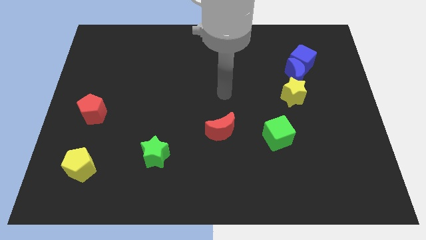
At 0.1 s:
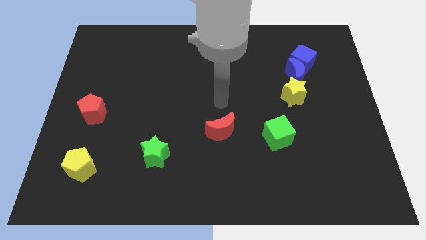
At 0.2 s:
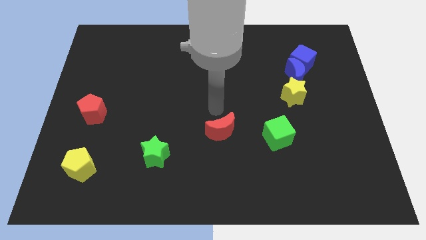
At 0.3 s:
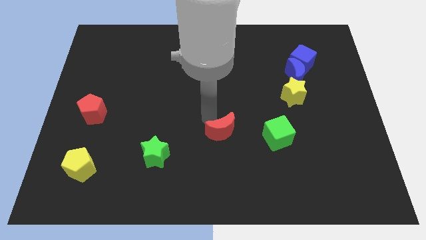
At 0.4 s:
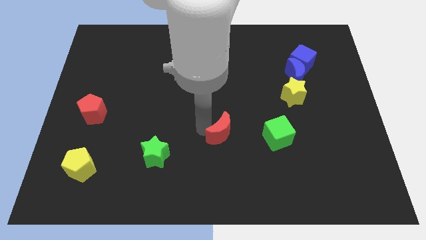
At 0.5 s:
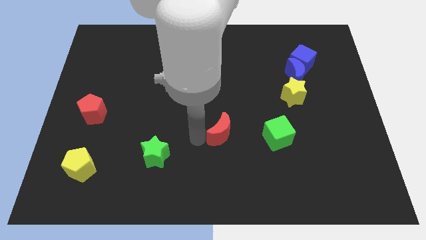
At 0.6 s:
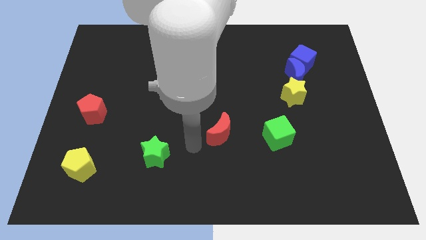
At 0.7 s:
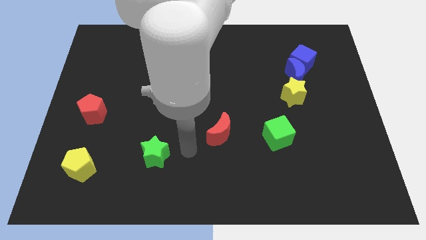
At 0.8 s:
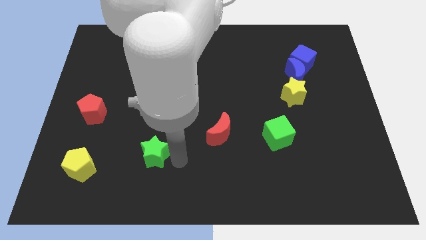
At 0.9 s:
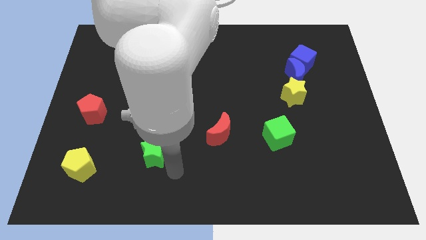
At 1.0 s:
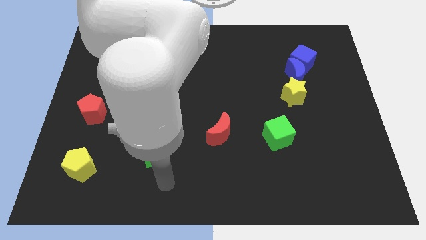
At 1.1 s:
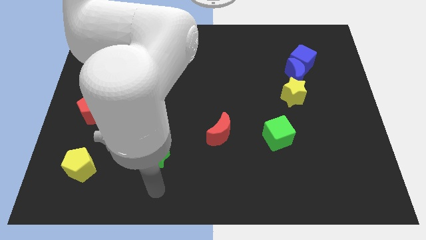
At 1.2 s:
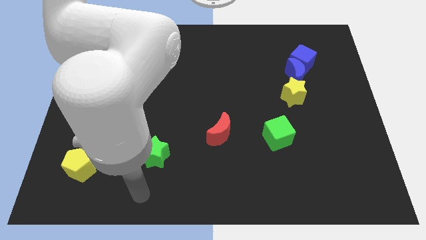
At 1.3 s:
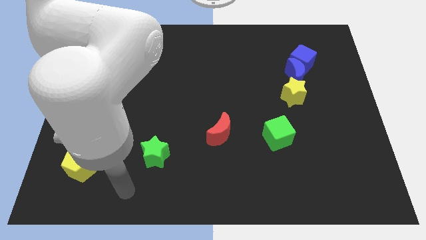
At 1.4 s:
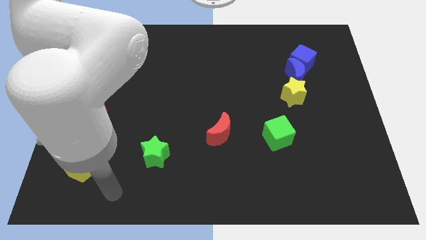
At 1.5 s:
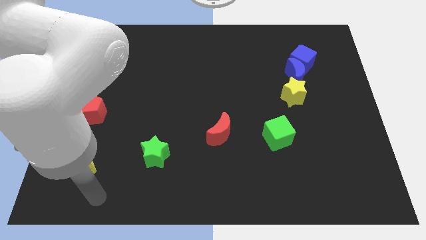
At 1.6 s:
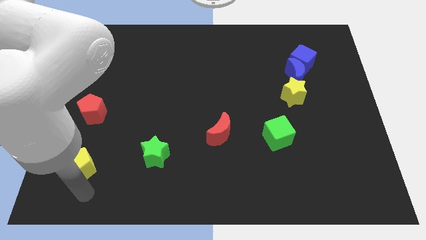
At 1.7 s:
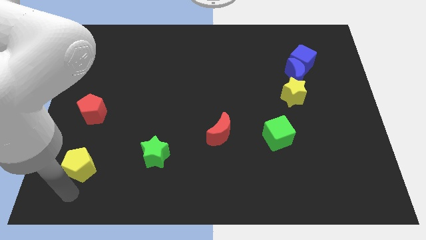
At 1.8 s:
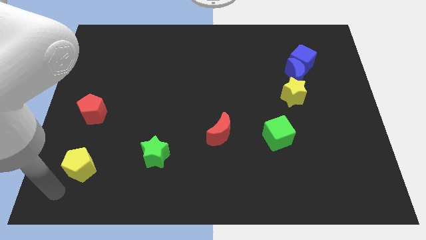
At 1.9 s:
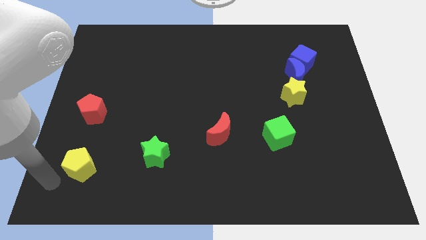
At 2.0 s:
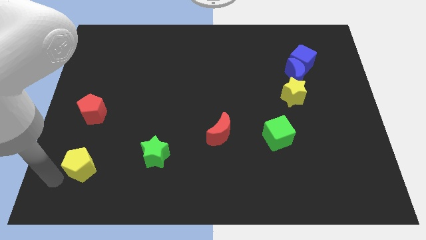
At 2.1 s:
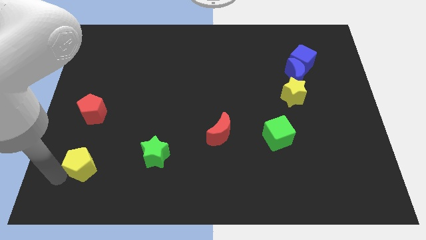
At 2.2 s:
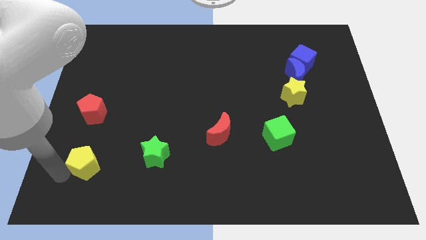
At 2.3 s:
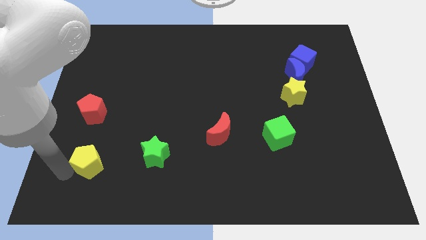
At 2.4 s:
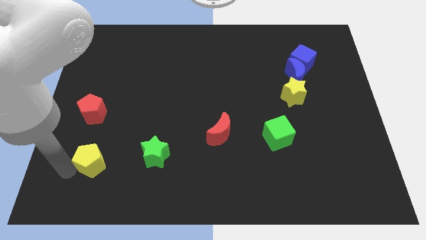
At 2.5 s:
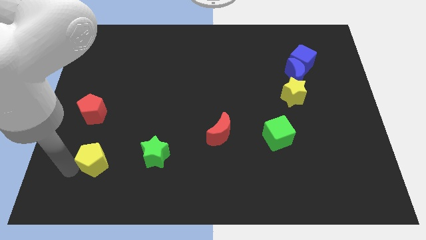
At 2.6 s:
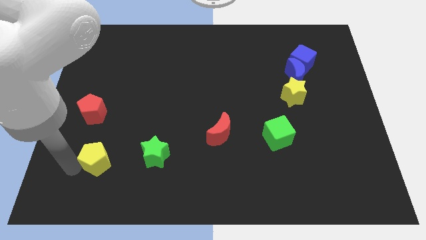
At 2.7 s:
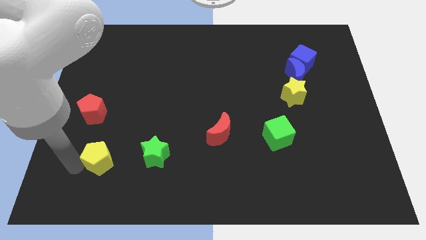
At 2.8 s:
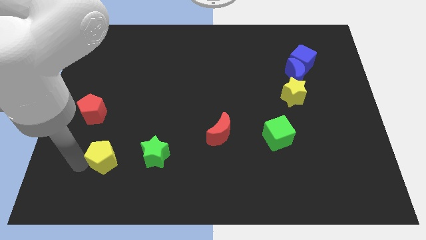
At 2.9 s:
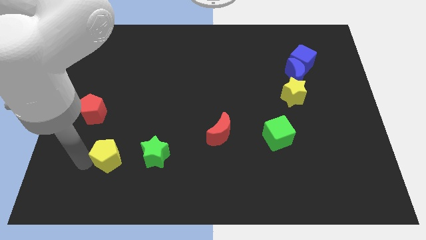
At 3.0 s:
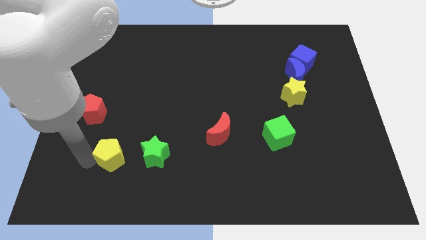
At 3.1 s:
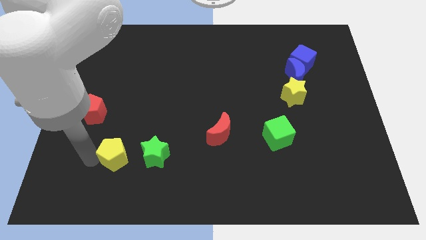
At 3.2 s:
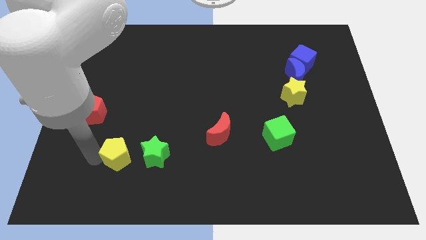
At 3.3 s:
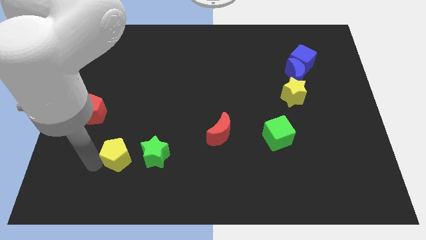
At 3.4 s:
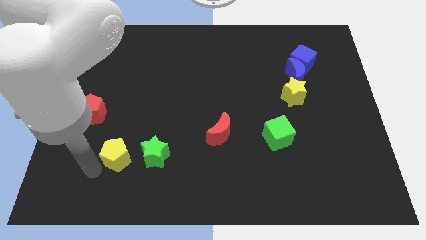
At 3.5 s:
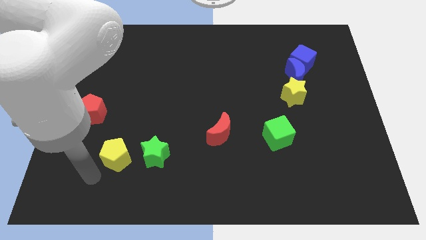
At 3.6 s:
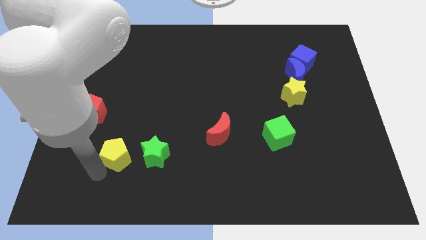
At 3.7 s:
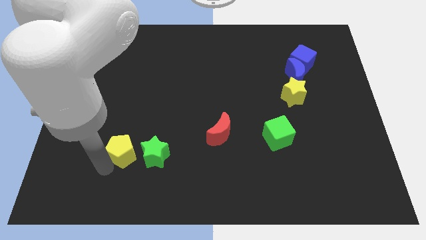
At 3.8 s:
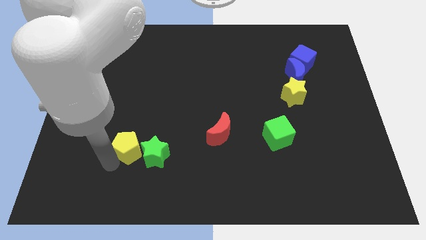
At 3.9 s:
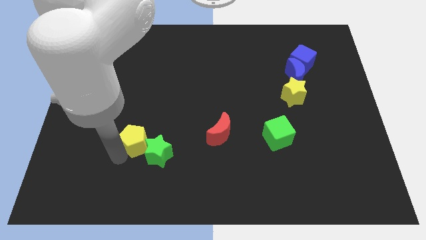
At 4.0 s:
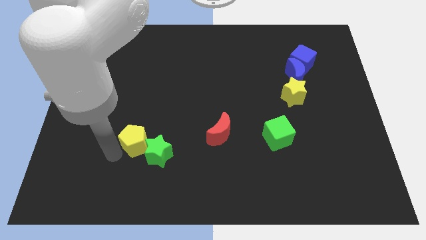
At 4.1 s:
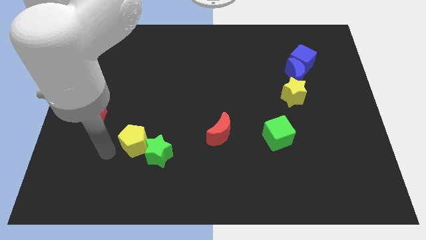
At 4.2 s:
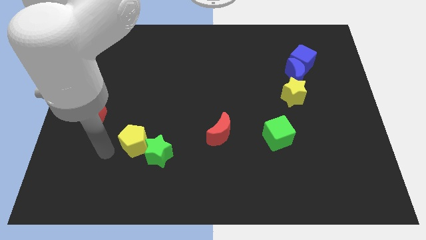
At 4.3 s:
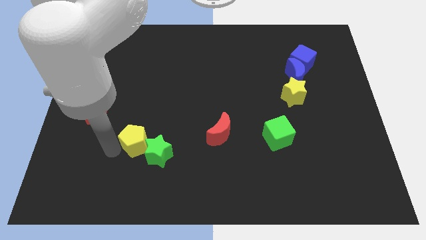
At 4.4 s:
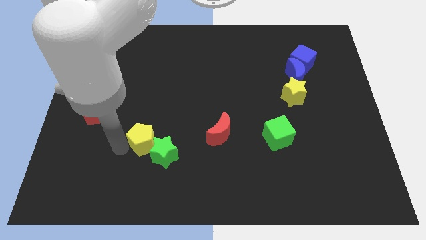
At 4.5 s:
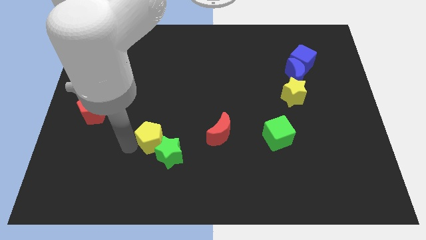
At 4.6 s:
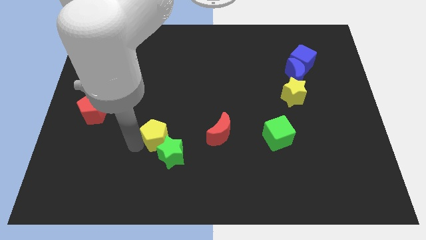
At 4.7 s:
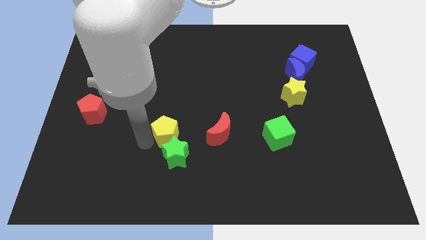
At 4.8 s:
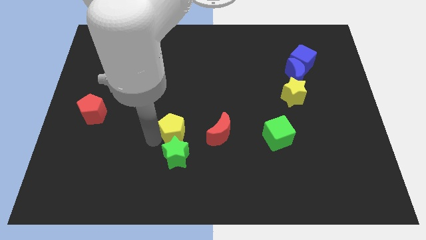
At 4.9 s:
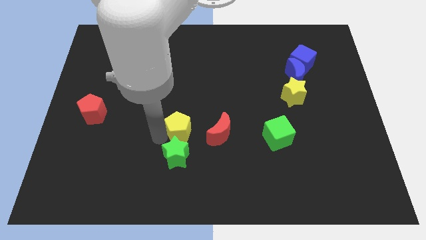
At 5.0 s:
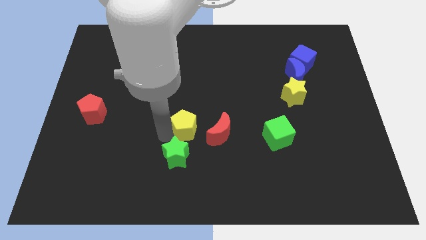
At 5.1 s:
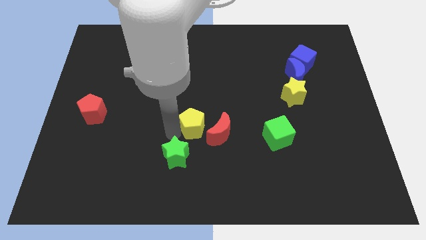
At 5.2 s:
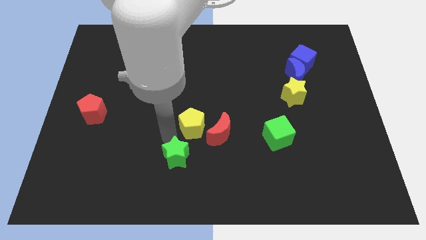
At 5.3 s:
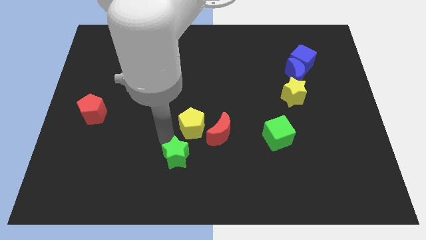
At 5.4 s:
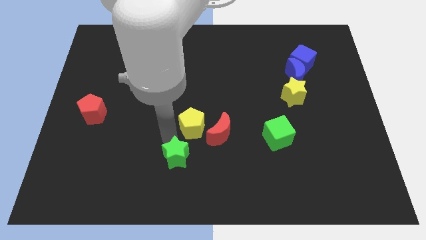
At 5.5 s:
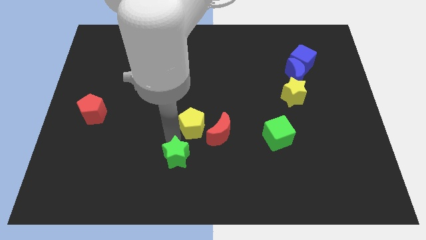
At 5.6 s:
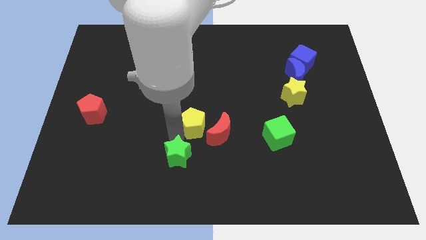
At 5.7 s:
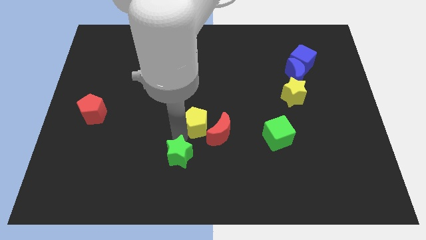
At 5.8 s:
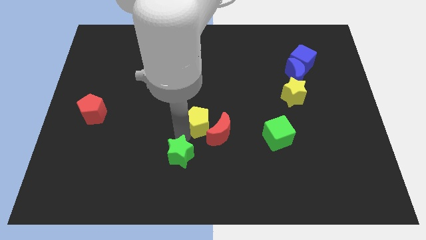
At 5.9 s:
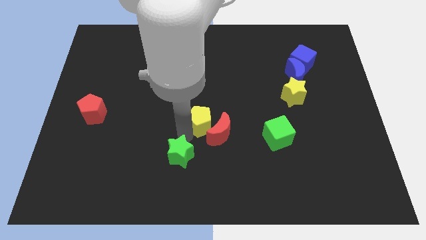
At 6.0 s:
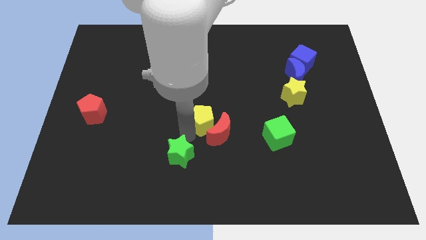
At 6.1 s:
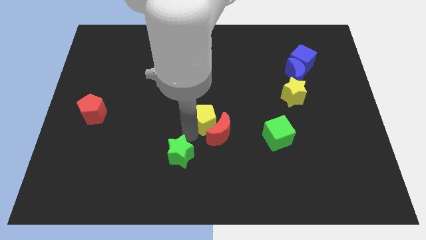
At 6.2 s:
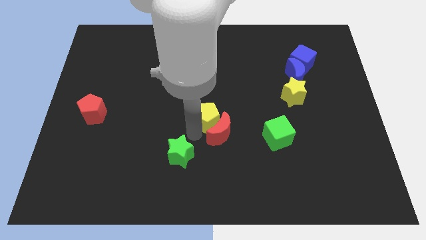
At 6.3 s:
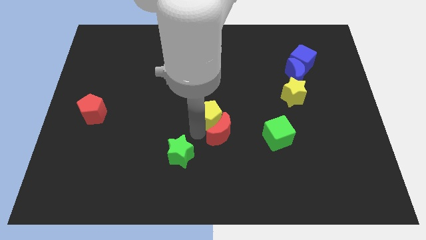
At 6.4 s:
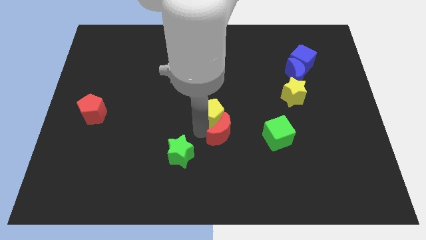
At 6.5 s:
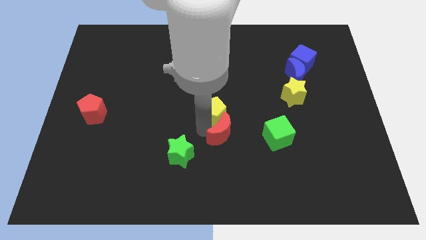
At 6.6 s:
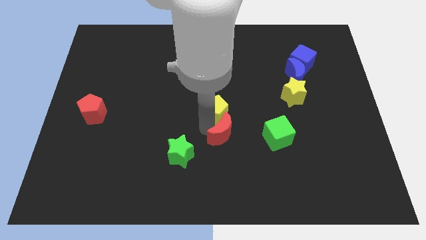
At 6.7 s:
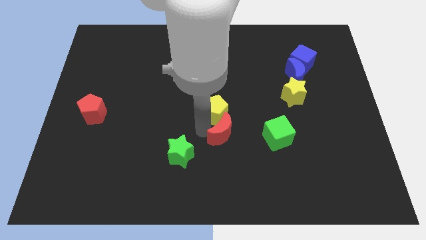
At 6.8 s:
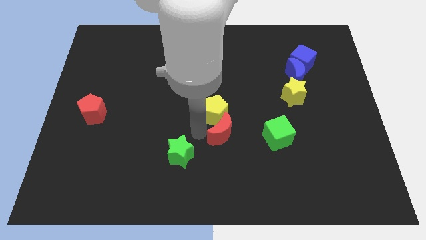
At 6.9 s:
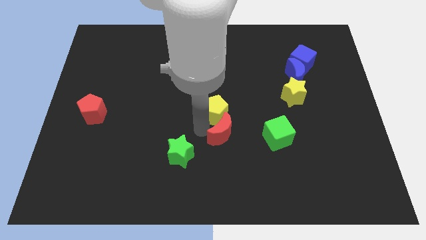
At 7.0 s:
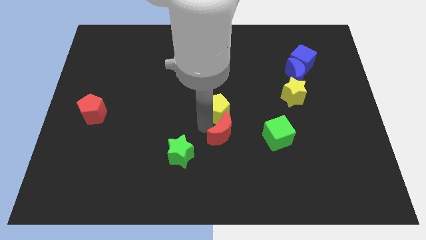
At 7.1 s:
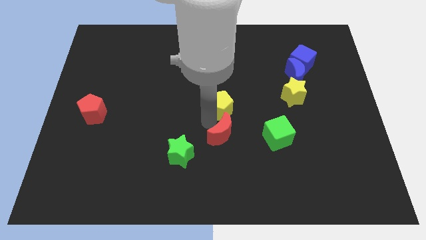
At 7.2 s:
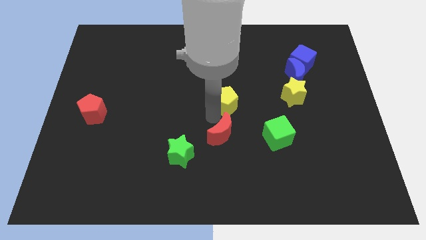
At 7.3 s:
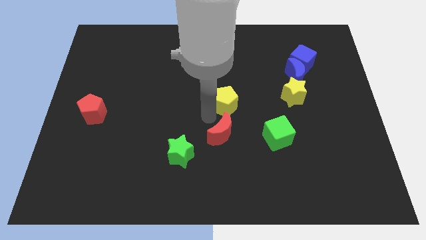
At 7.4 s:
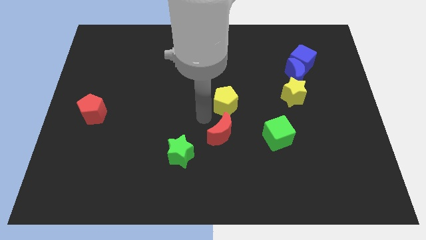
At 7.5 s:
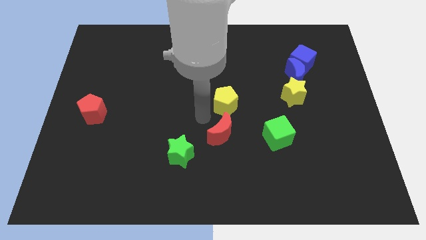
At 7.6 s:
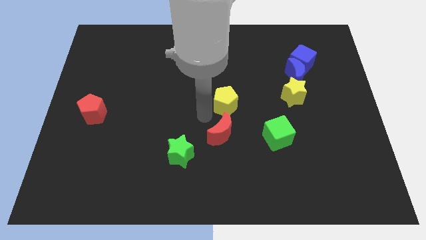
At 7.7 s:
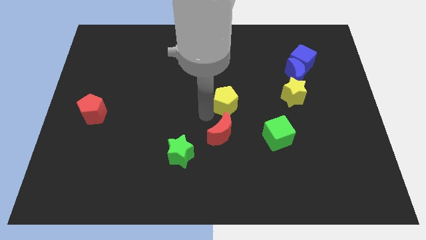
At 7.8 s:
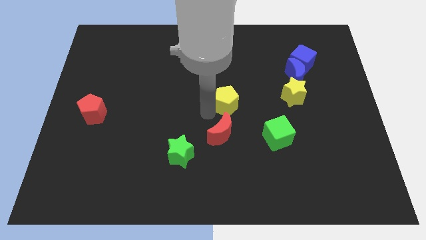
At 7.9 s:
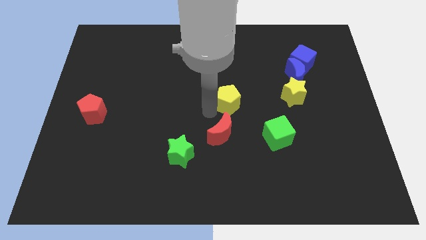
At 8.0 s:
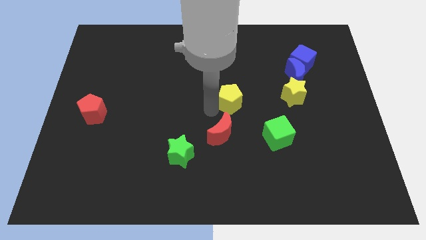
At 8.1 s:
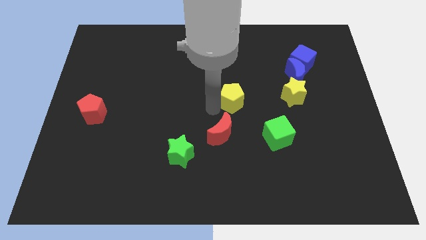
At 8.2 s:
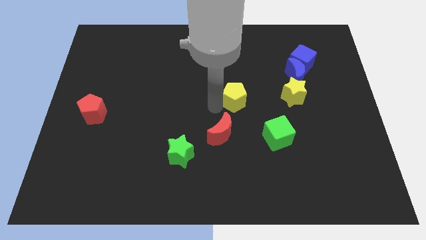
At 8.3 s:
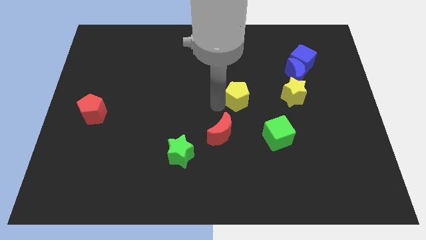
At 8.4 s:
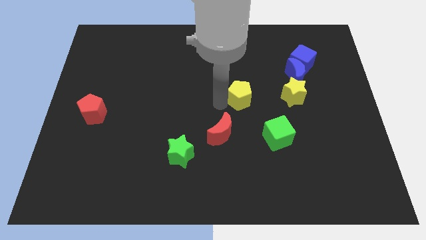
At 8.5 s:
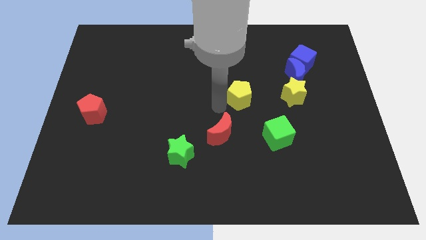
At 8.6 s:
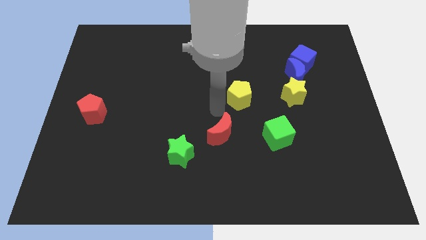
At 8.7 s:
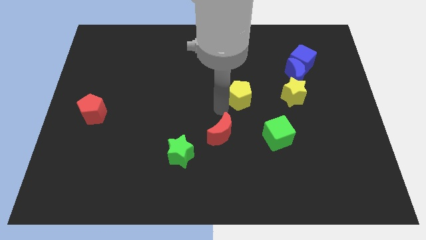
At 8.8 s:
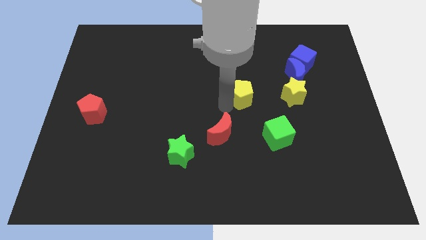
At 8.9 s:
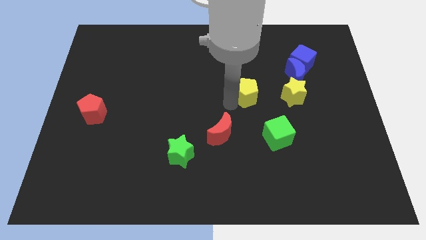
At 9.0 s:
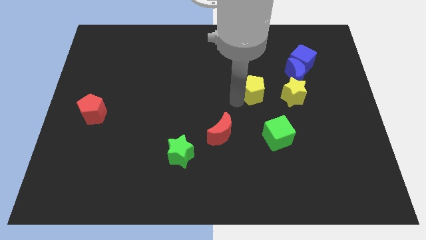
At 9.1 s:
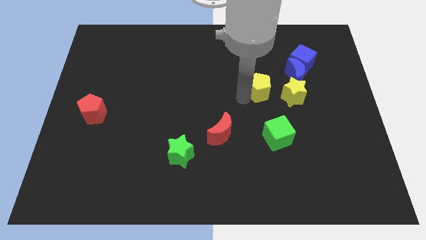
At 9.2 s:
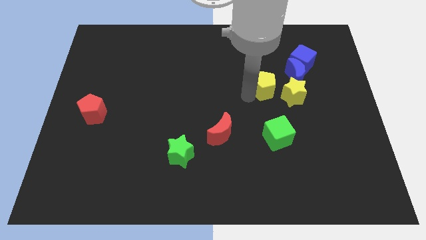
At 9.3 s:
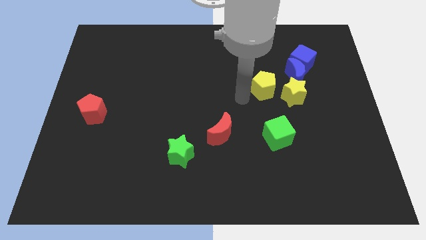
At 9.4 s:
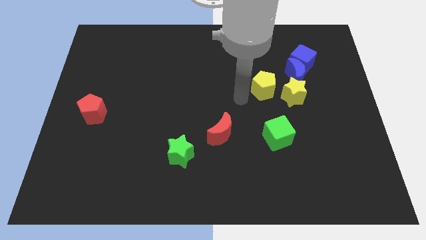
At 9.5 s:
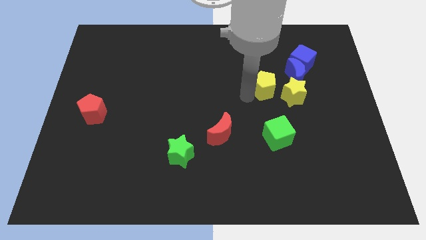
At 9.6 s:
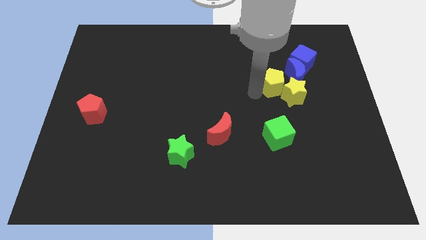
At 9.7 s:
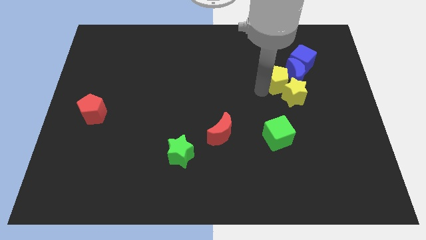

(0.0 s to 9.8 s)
move the yellow pentagon next to the blue moon
